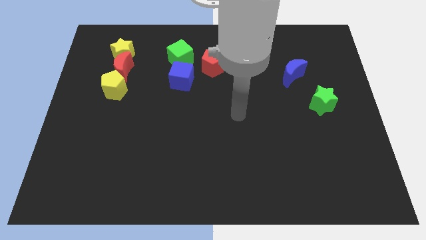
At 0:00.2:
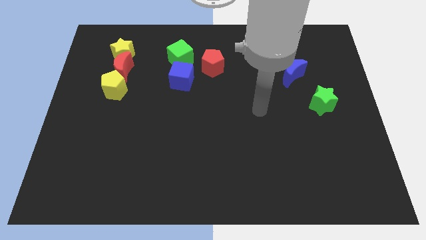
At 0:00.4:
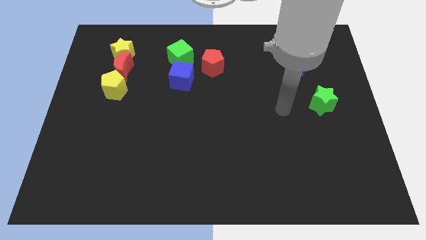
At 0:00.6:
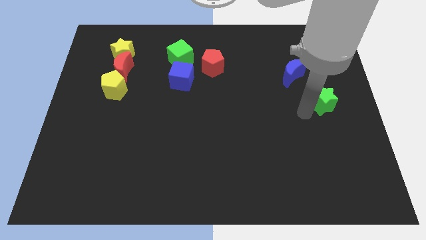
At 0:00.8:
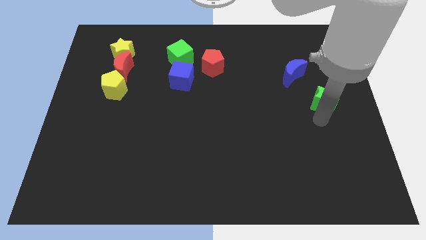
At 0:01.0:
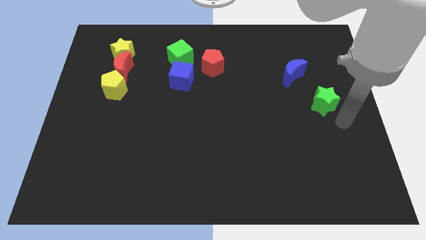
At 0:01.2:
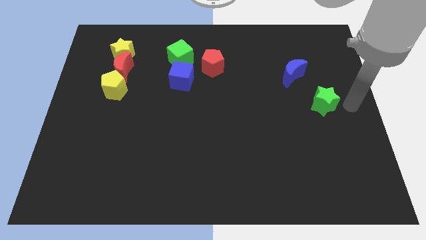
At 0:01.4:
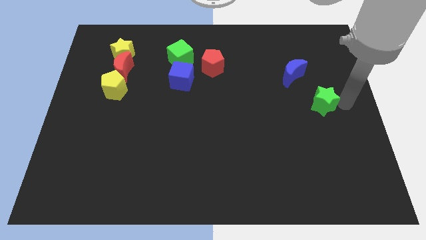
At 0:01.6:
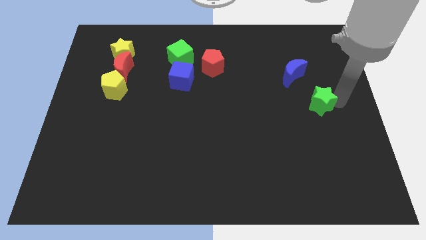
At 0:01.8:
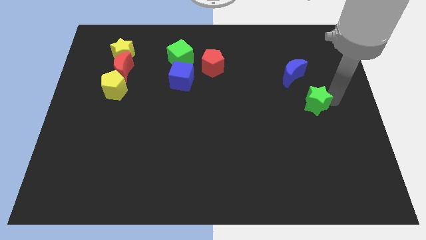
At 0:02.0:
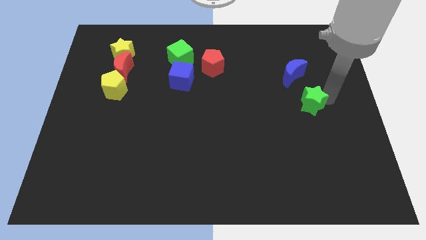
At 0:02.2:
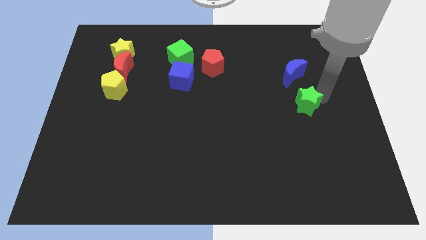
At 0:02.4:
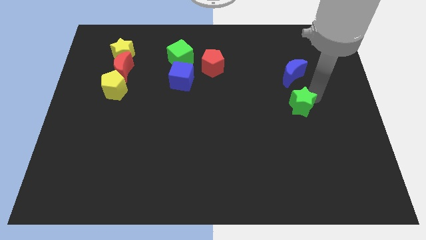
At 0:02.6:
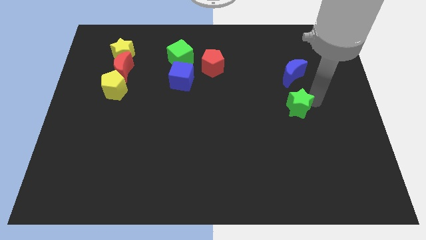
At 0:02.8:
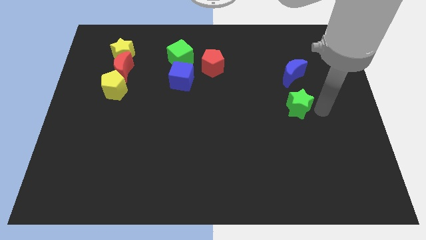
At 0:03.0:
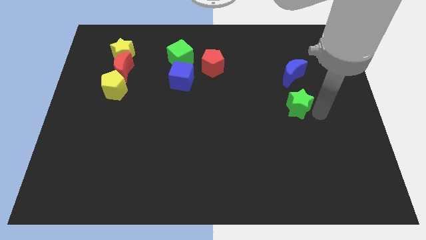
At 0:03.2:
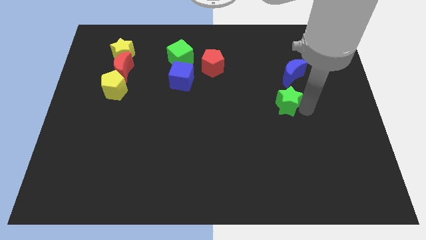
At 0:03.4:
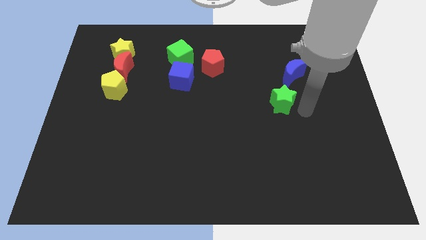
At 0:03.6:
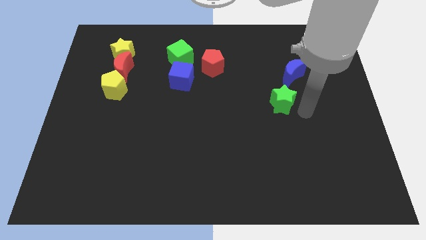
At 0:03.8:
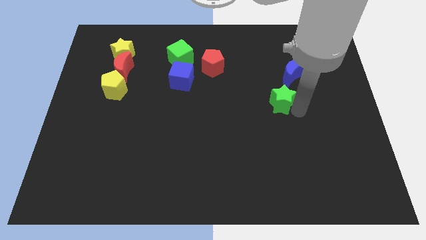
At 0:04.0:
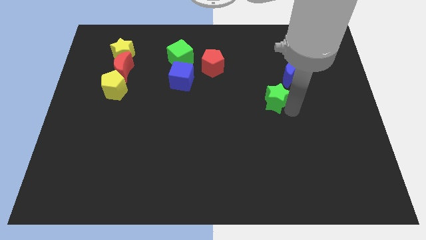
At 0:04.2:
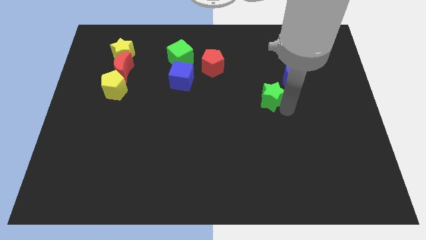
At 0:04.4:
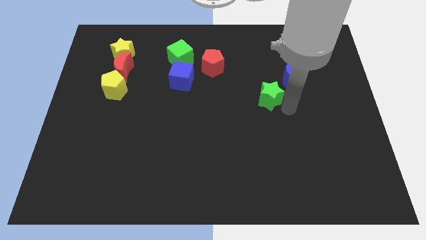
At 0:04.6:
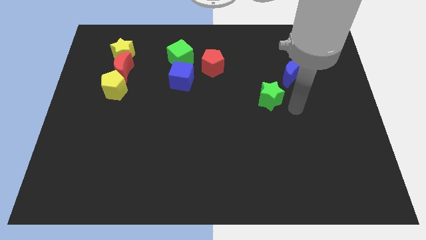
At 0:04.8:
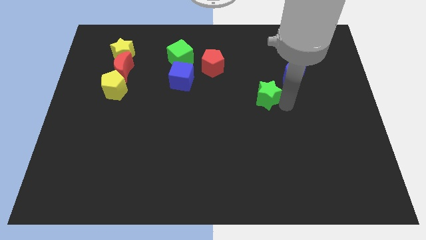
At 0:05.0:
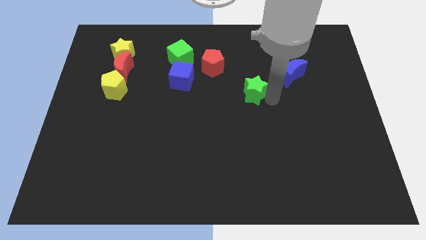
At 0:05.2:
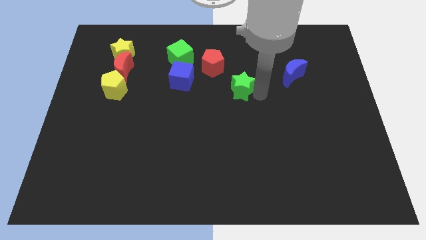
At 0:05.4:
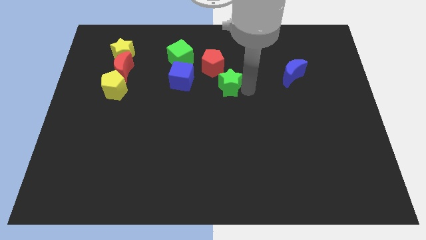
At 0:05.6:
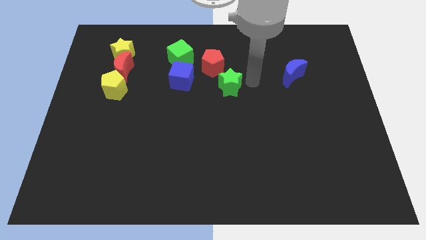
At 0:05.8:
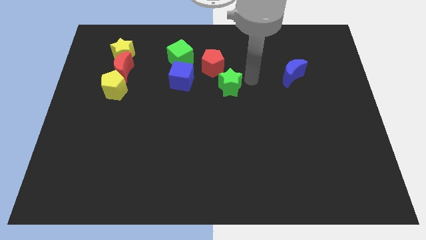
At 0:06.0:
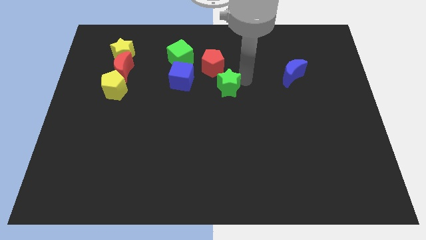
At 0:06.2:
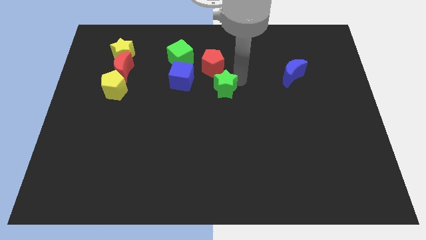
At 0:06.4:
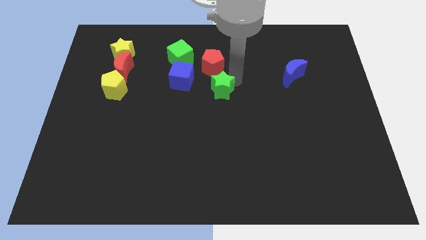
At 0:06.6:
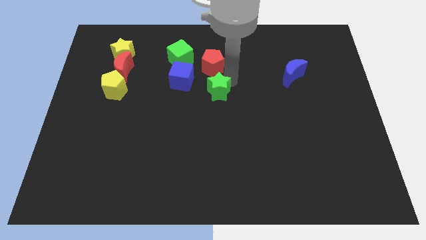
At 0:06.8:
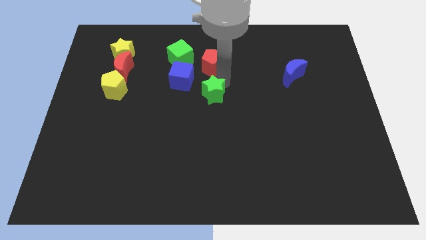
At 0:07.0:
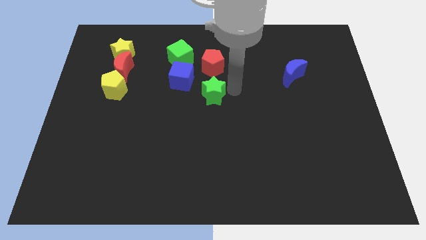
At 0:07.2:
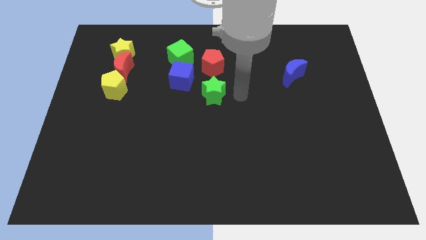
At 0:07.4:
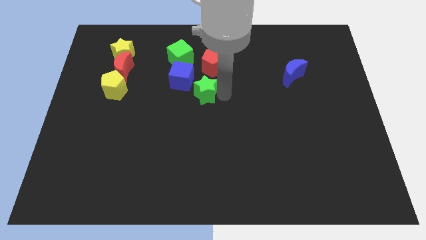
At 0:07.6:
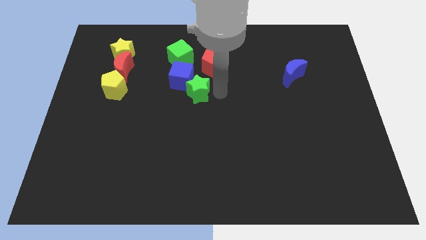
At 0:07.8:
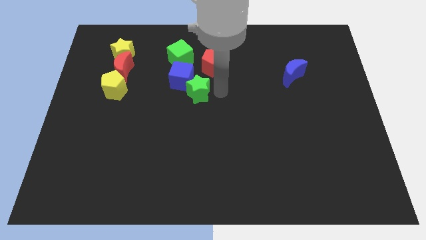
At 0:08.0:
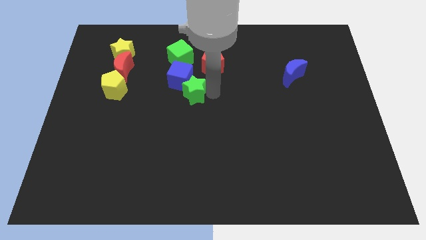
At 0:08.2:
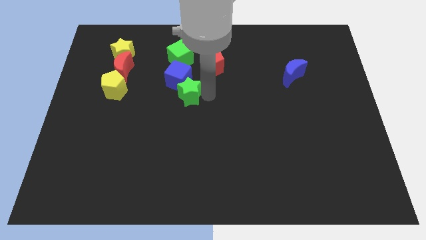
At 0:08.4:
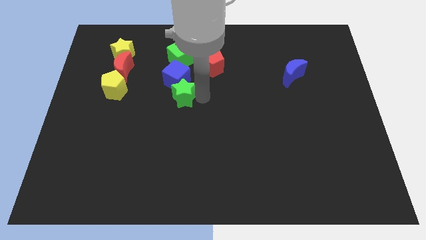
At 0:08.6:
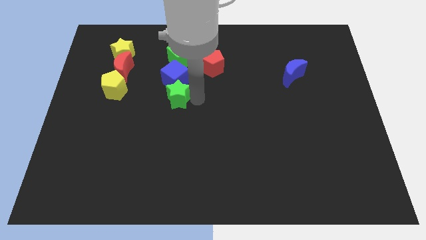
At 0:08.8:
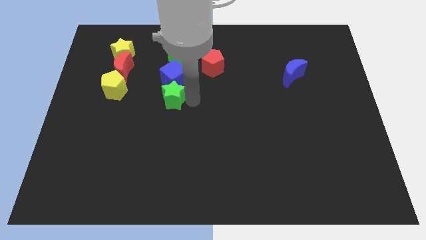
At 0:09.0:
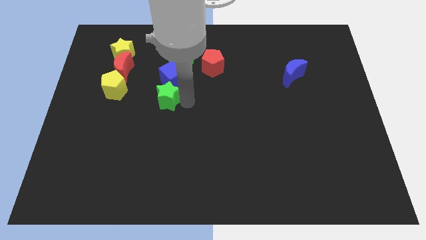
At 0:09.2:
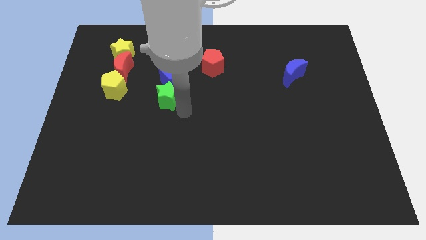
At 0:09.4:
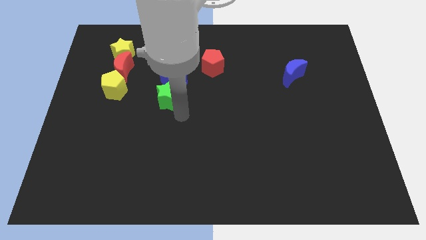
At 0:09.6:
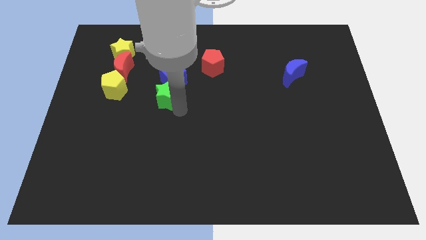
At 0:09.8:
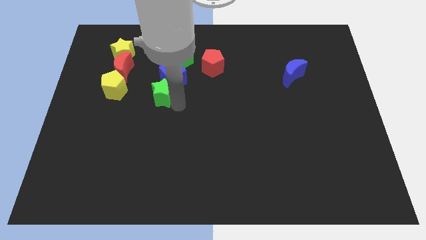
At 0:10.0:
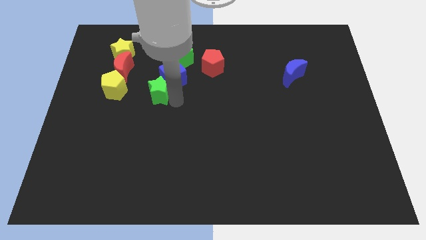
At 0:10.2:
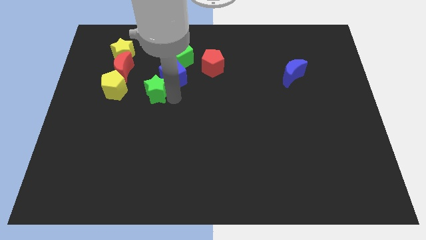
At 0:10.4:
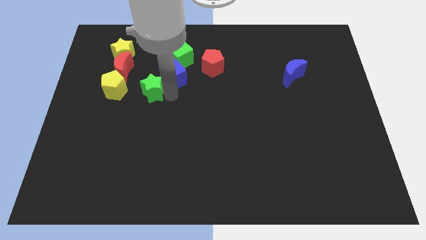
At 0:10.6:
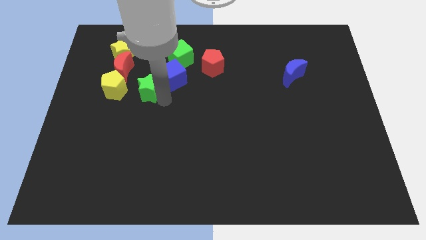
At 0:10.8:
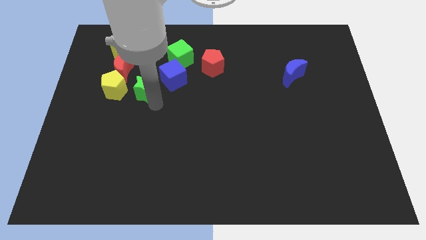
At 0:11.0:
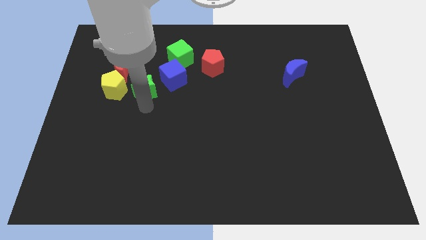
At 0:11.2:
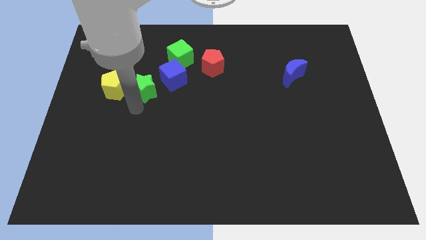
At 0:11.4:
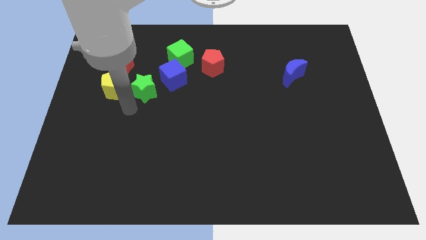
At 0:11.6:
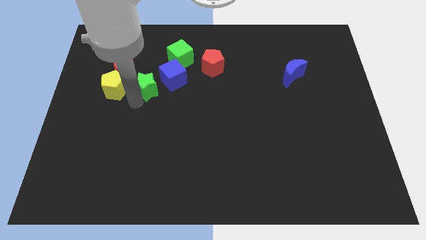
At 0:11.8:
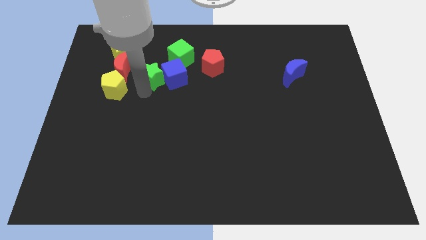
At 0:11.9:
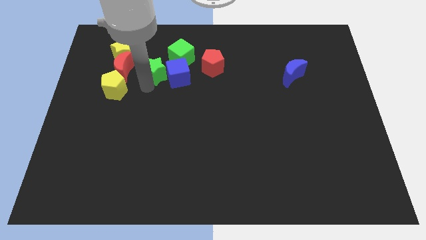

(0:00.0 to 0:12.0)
push the green star to the left side of the red pentagon
